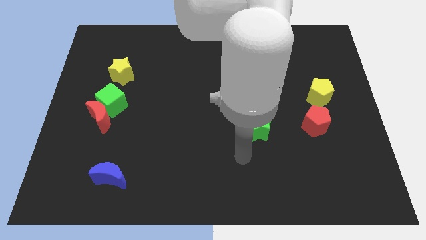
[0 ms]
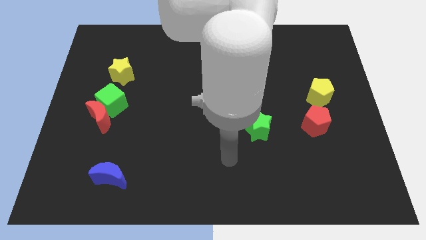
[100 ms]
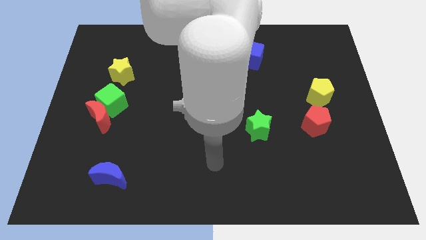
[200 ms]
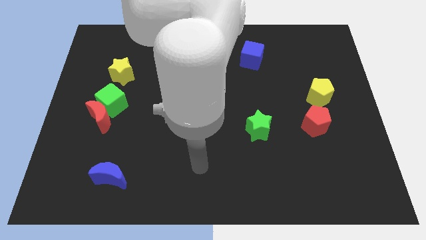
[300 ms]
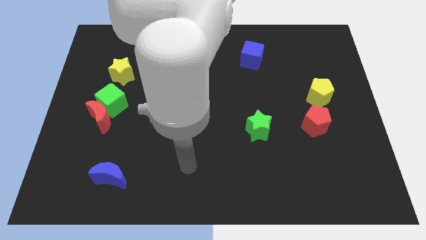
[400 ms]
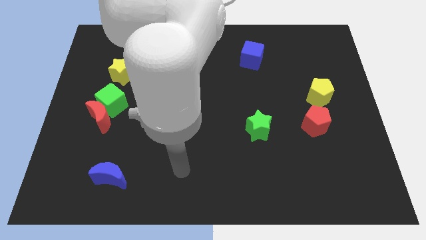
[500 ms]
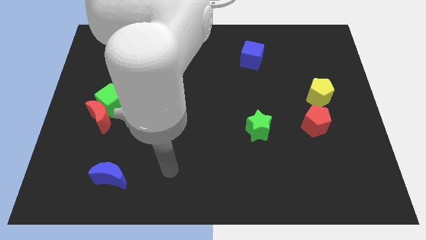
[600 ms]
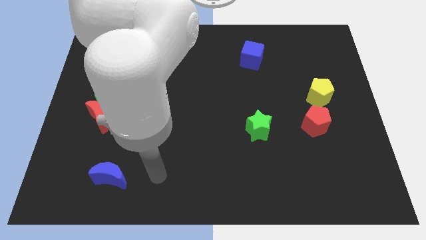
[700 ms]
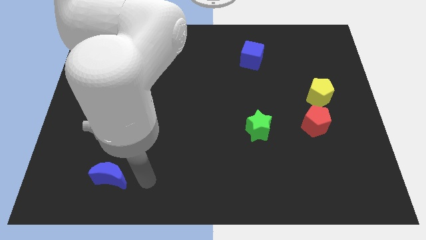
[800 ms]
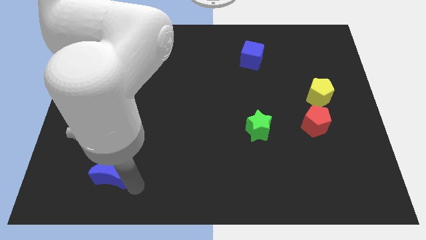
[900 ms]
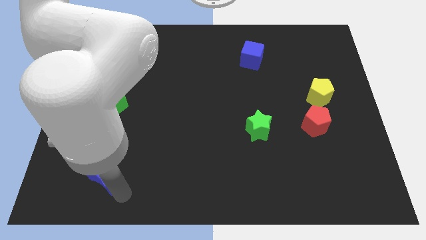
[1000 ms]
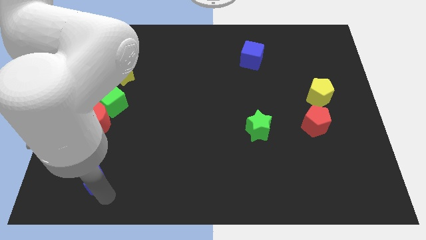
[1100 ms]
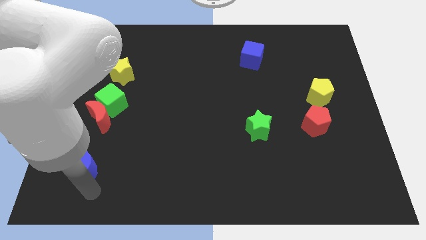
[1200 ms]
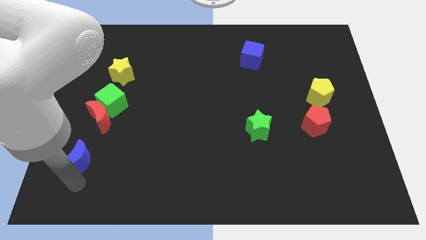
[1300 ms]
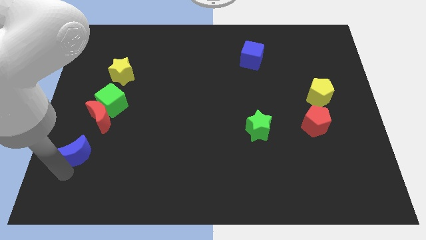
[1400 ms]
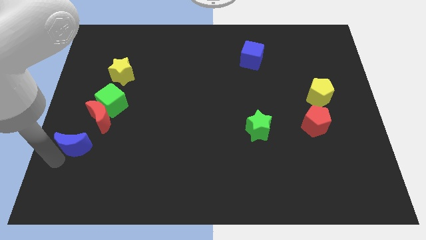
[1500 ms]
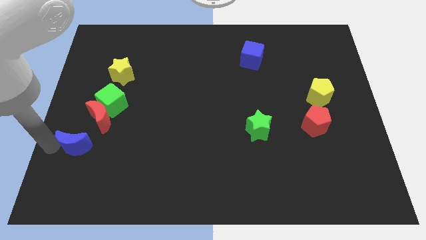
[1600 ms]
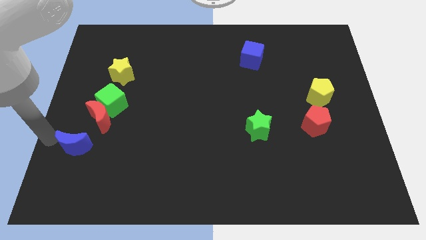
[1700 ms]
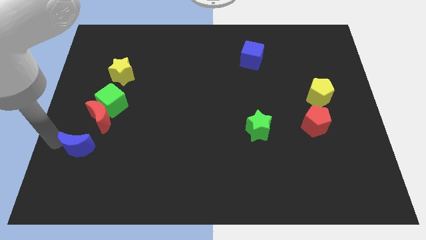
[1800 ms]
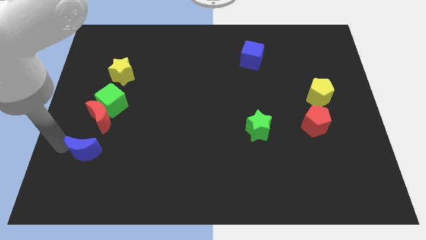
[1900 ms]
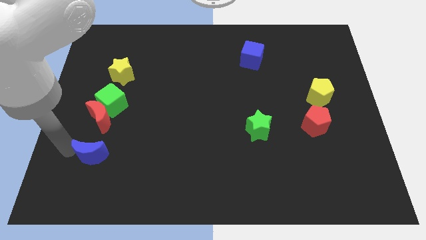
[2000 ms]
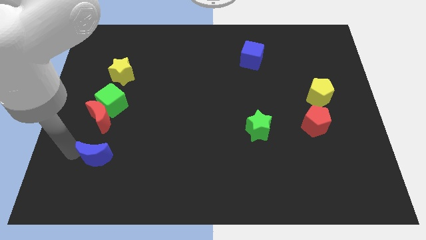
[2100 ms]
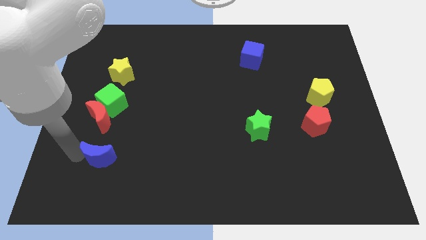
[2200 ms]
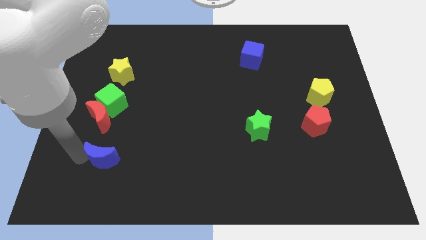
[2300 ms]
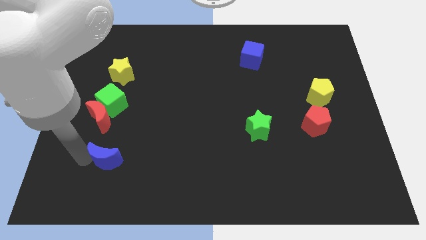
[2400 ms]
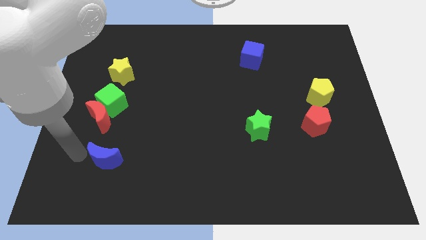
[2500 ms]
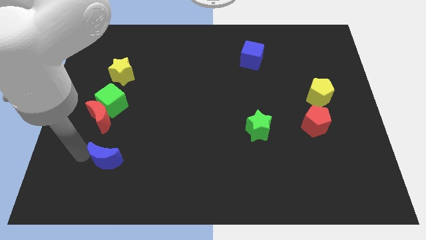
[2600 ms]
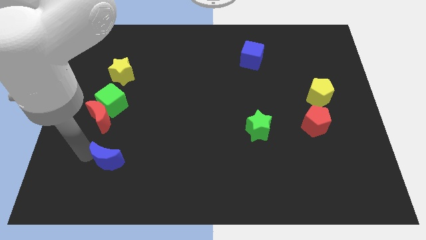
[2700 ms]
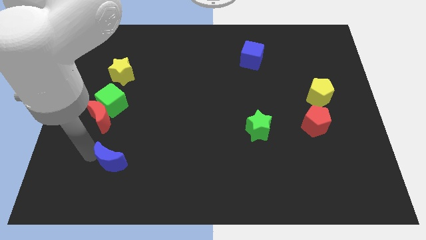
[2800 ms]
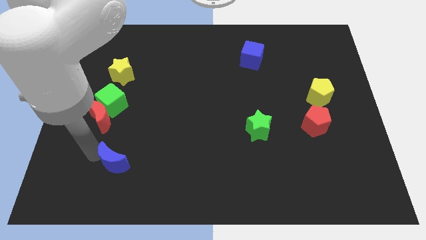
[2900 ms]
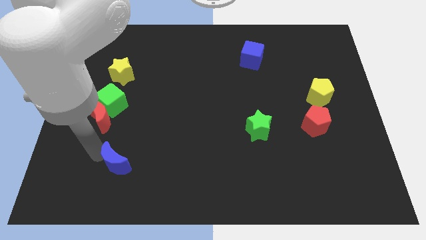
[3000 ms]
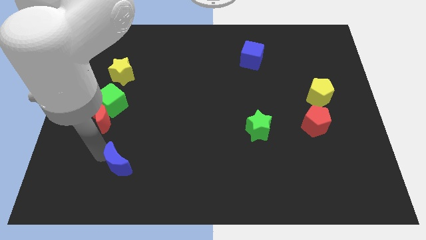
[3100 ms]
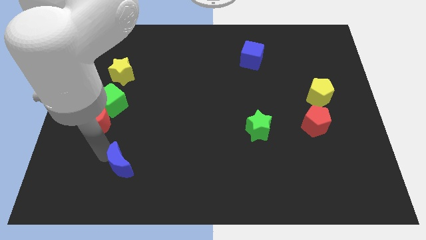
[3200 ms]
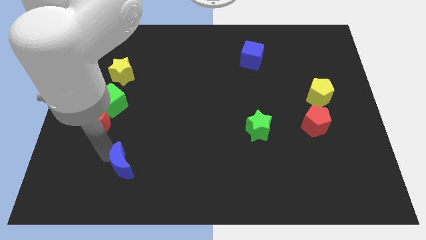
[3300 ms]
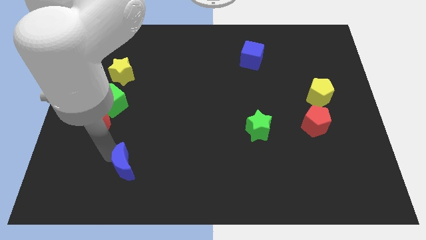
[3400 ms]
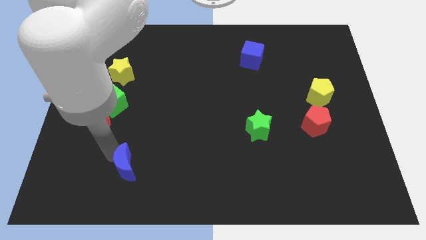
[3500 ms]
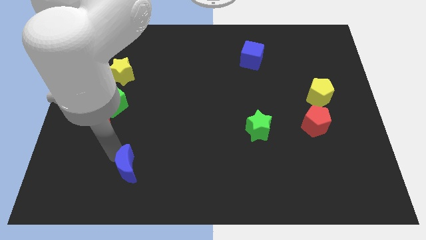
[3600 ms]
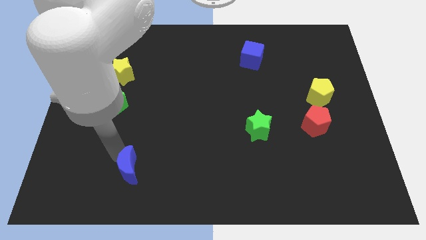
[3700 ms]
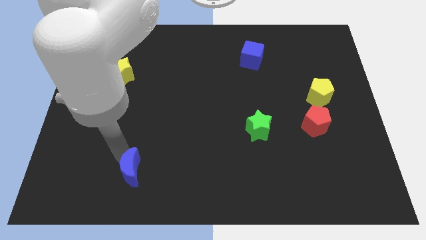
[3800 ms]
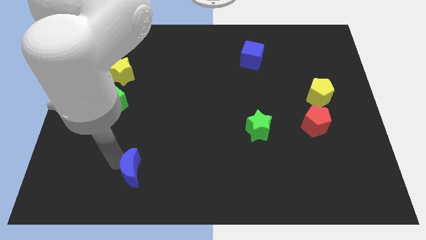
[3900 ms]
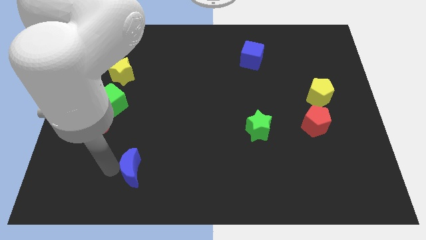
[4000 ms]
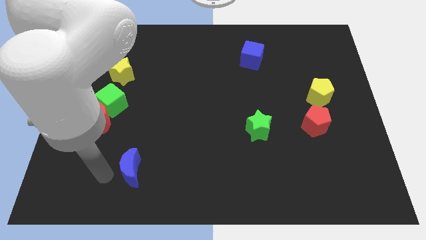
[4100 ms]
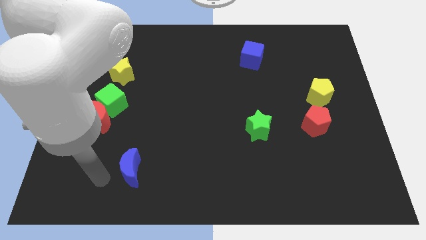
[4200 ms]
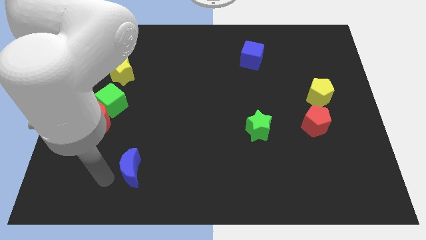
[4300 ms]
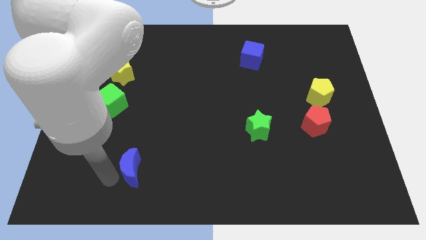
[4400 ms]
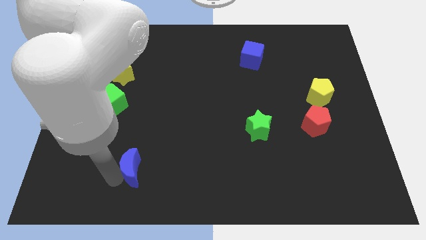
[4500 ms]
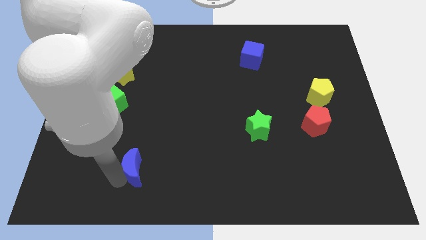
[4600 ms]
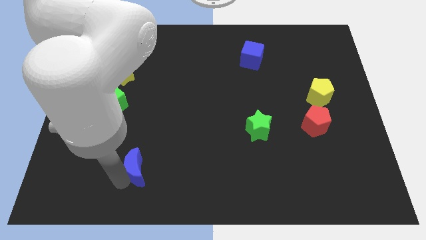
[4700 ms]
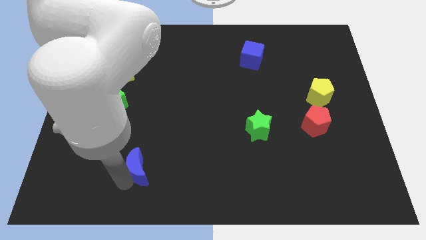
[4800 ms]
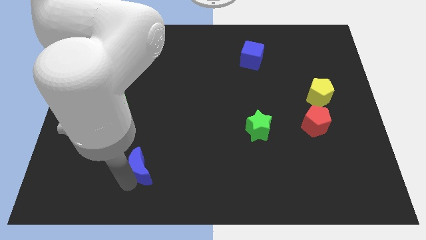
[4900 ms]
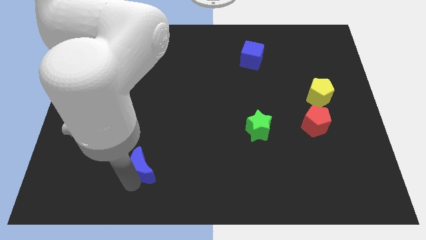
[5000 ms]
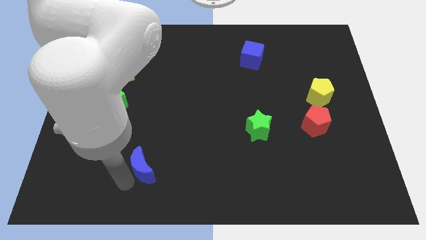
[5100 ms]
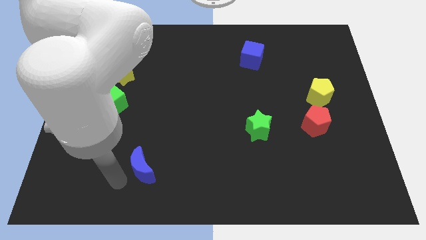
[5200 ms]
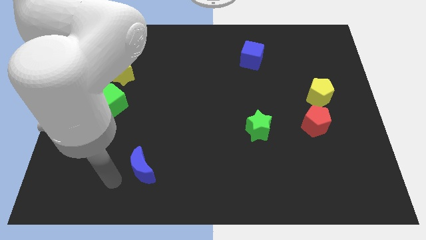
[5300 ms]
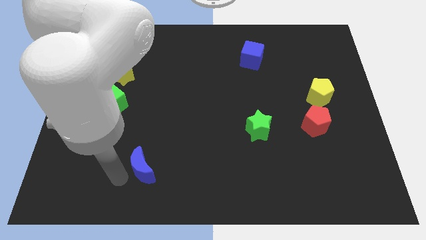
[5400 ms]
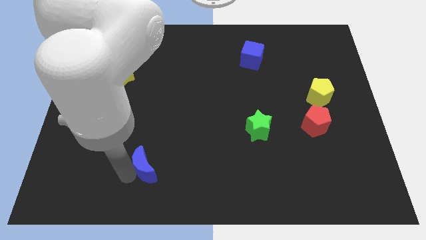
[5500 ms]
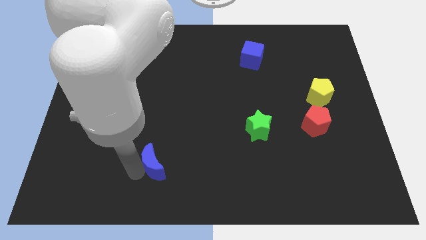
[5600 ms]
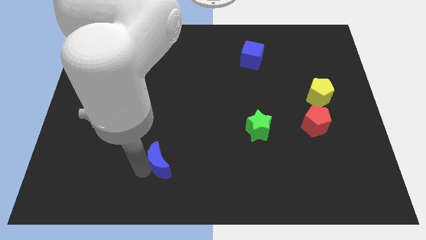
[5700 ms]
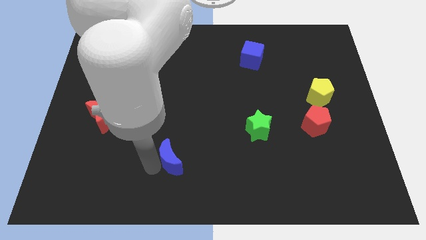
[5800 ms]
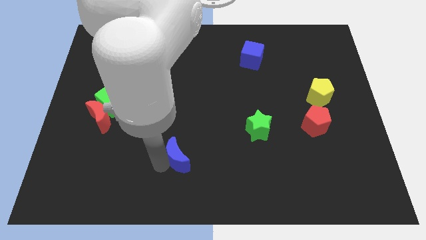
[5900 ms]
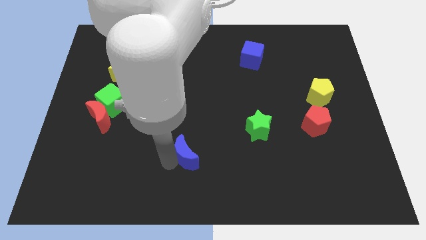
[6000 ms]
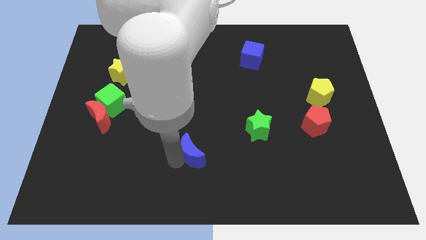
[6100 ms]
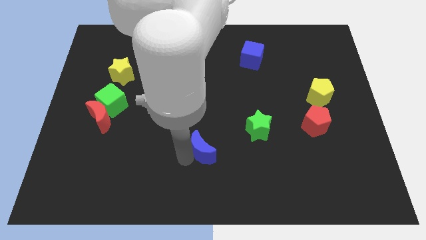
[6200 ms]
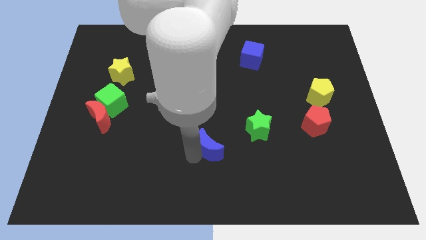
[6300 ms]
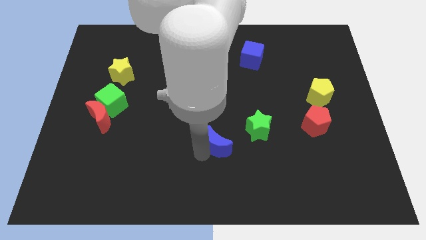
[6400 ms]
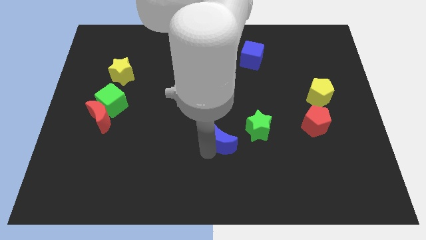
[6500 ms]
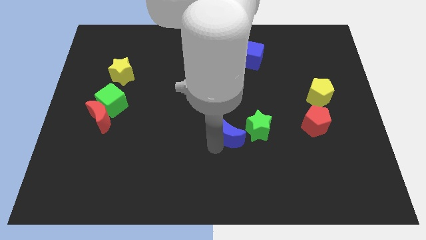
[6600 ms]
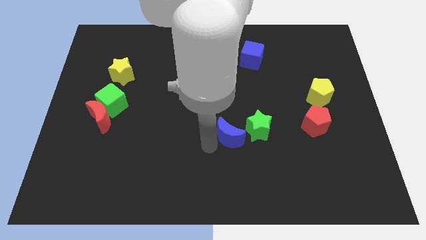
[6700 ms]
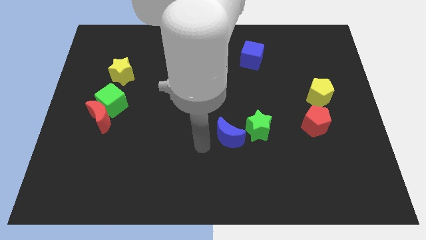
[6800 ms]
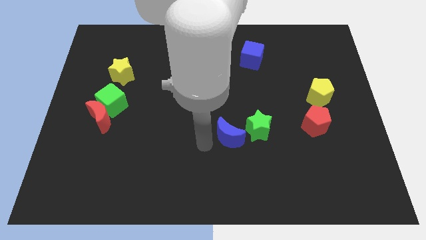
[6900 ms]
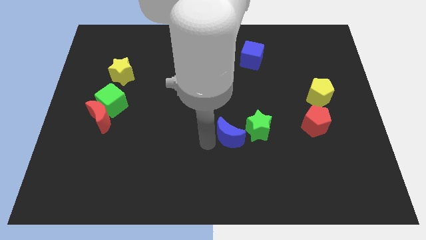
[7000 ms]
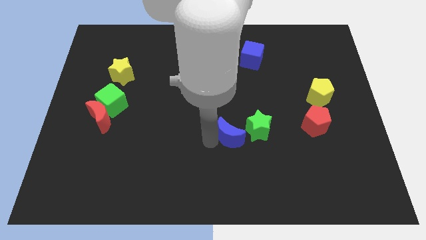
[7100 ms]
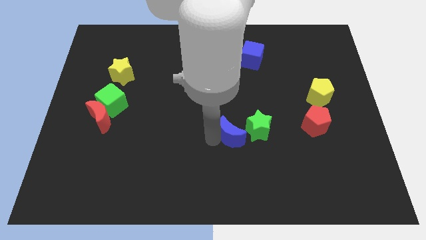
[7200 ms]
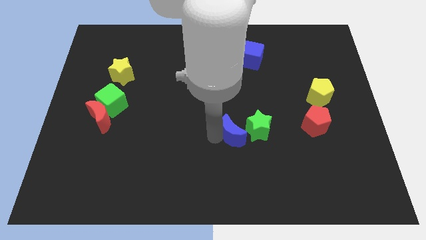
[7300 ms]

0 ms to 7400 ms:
move the blue moon close to the green star

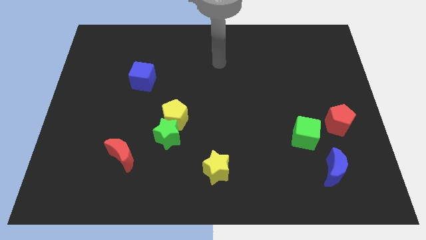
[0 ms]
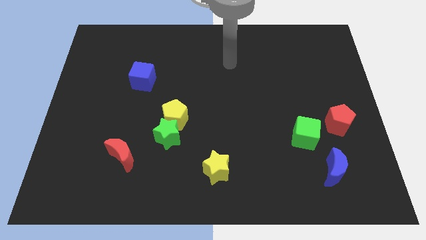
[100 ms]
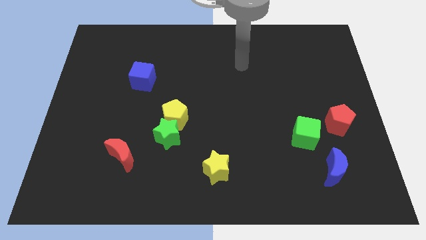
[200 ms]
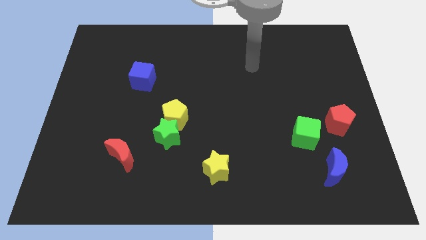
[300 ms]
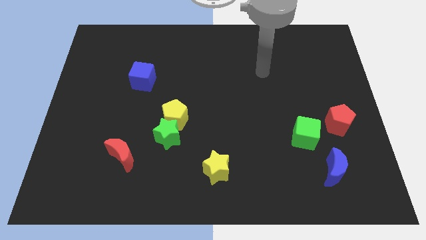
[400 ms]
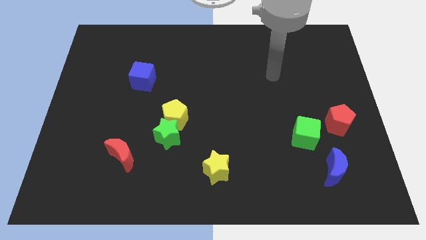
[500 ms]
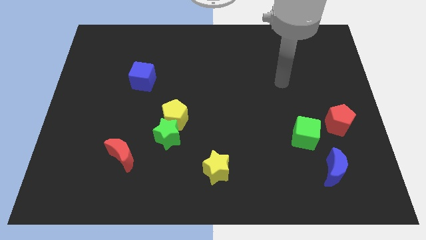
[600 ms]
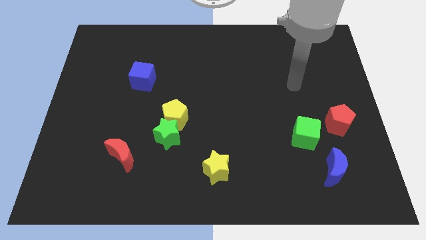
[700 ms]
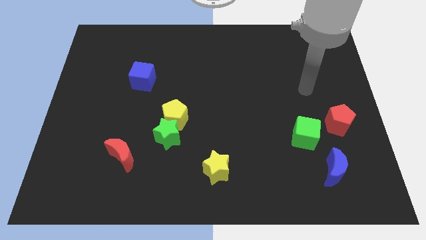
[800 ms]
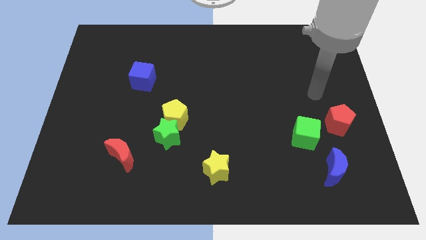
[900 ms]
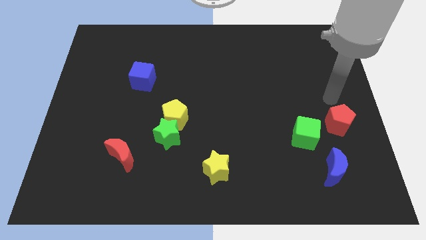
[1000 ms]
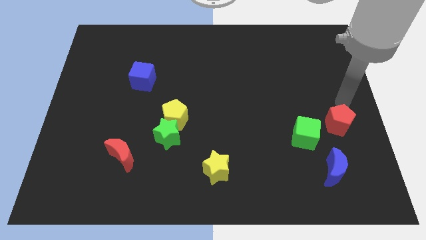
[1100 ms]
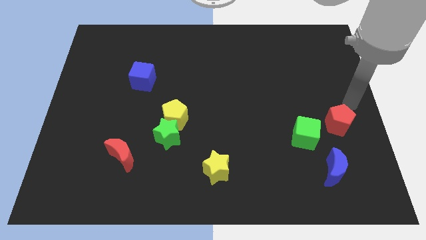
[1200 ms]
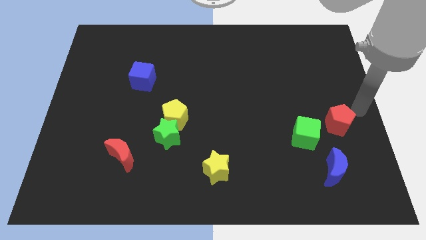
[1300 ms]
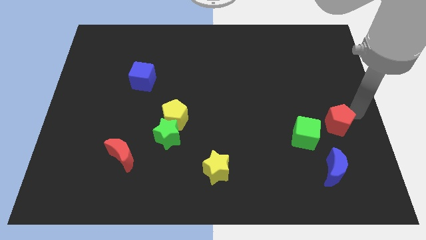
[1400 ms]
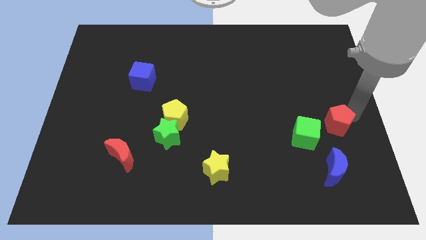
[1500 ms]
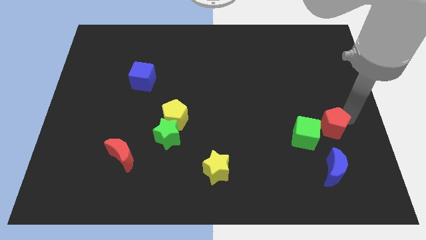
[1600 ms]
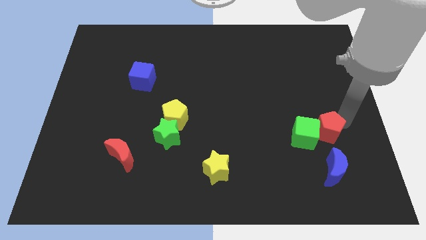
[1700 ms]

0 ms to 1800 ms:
put the red pentagon close to the green cube
